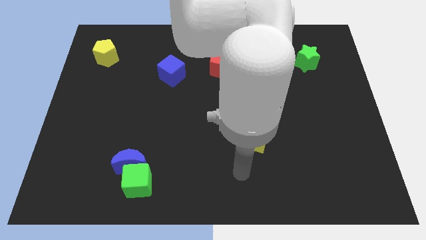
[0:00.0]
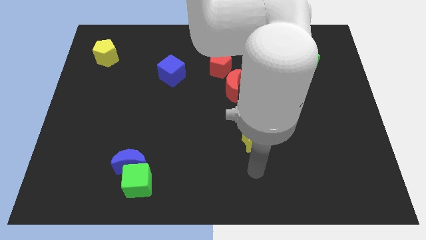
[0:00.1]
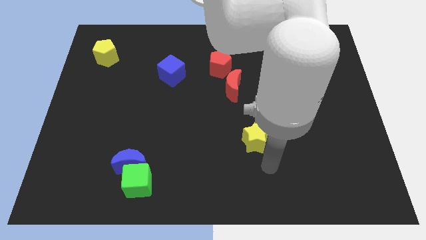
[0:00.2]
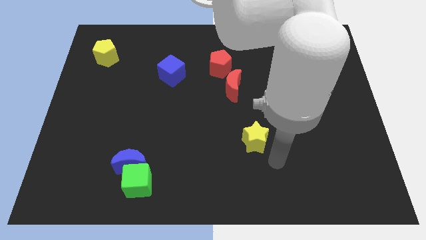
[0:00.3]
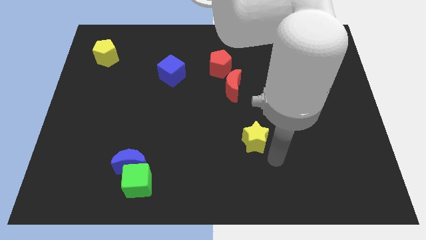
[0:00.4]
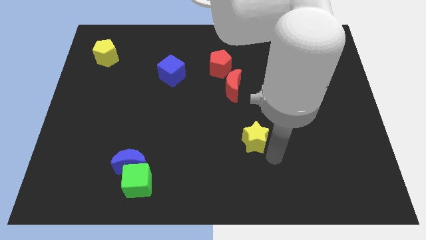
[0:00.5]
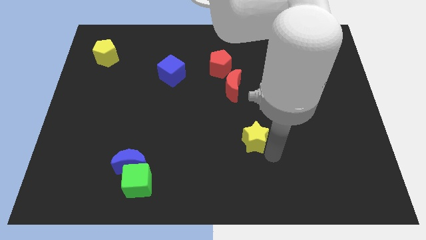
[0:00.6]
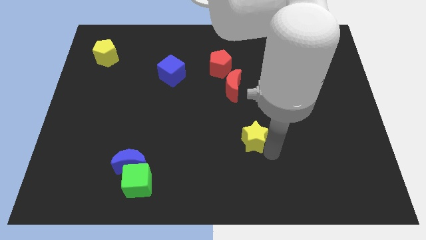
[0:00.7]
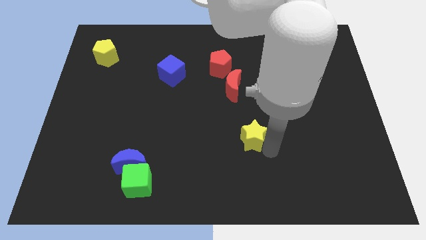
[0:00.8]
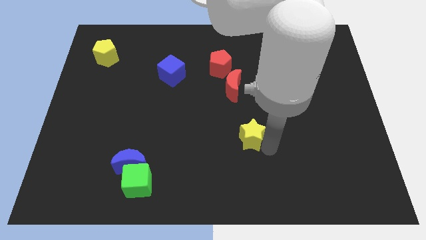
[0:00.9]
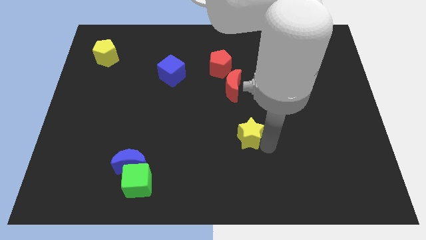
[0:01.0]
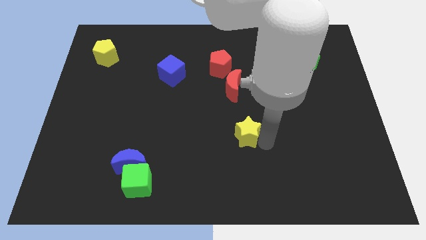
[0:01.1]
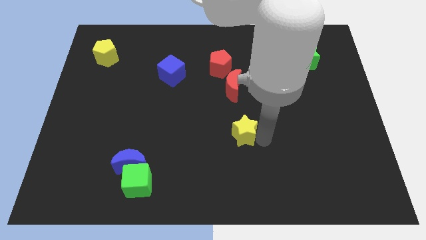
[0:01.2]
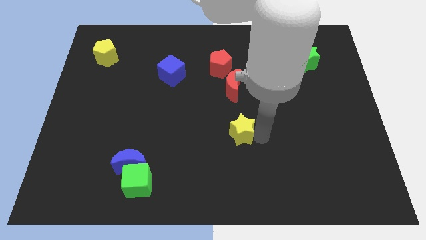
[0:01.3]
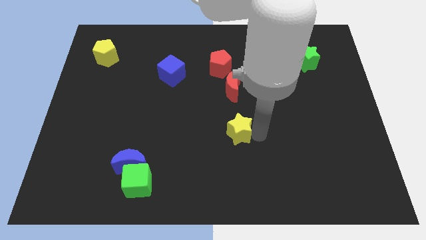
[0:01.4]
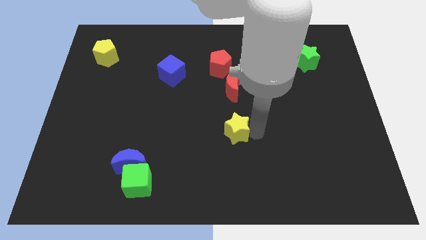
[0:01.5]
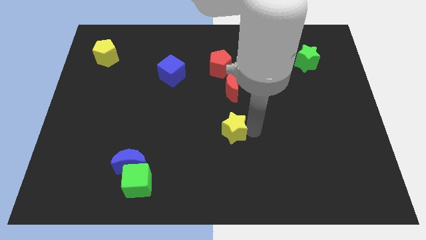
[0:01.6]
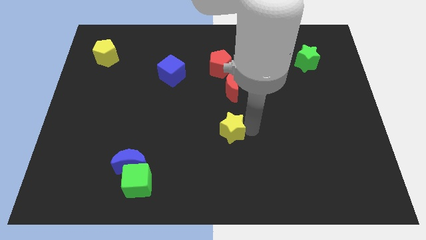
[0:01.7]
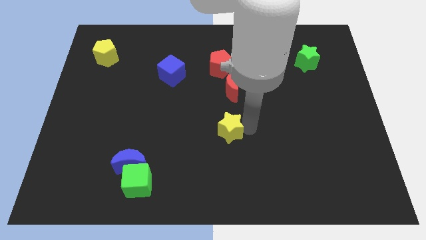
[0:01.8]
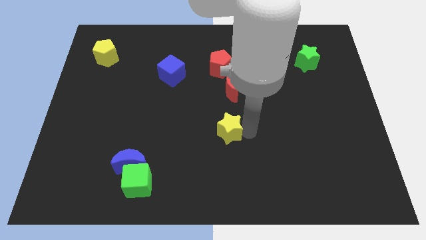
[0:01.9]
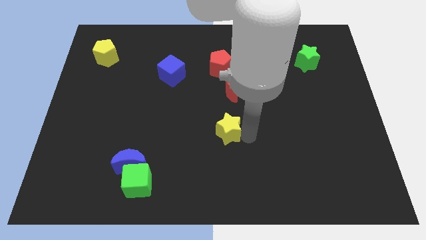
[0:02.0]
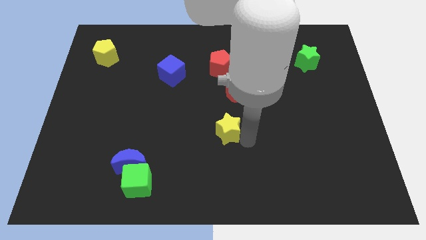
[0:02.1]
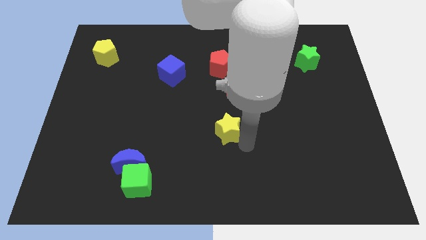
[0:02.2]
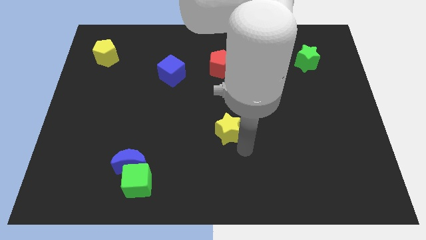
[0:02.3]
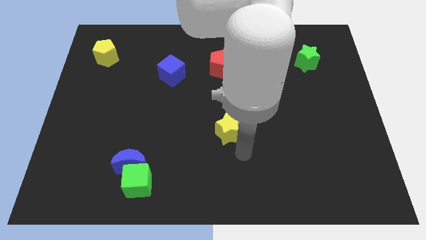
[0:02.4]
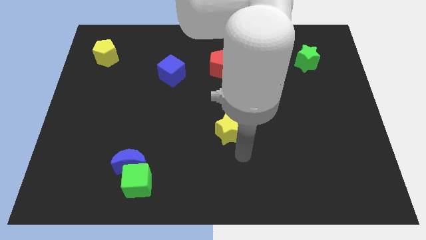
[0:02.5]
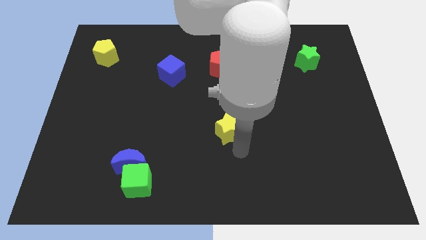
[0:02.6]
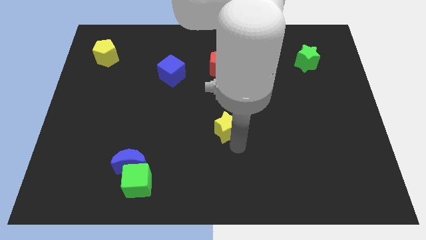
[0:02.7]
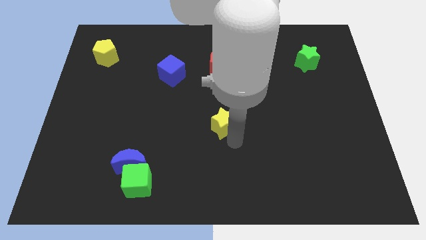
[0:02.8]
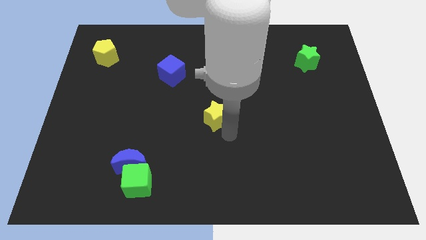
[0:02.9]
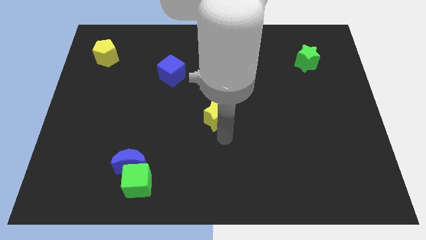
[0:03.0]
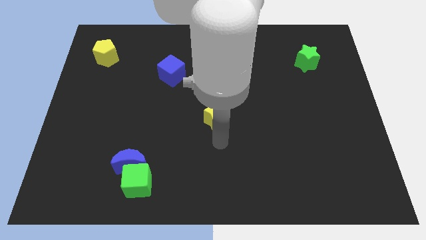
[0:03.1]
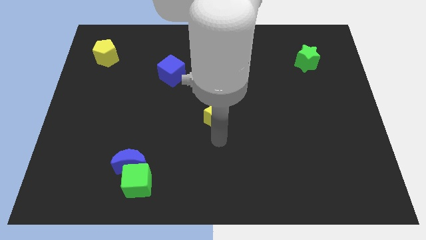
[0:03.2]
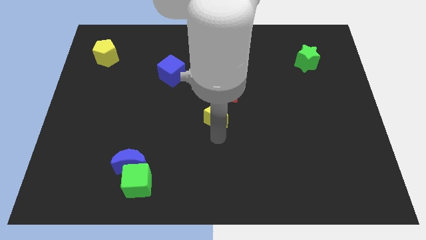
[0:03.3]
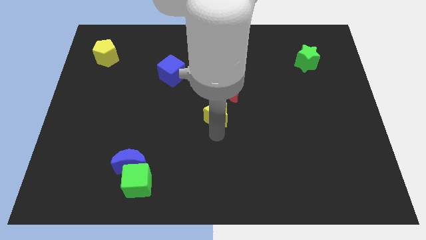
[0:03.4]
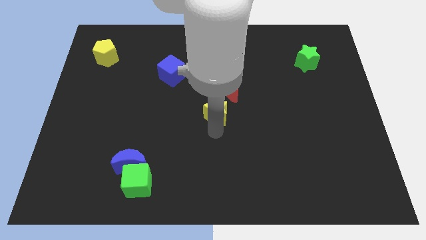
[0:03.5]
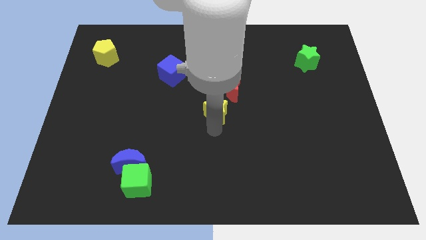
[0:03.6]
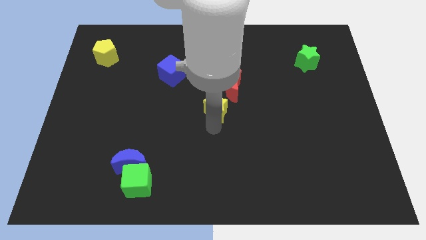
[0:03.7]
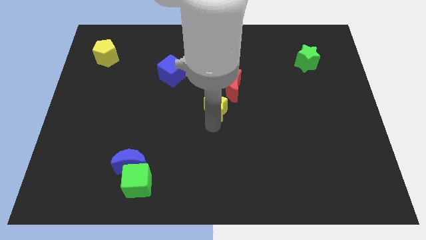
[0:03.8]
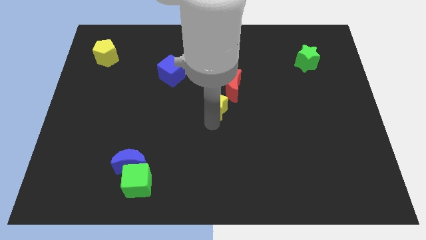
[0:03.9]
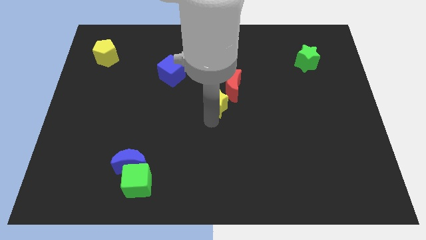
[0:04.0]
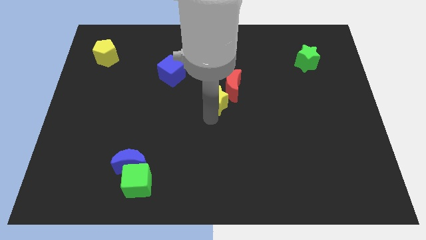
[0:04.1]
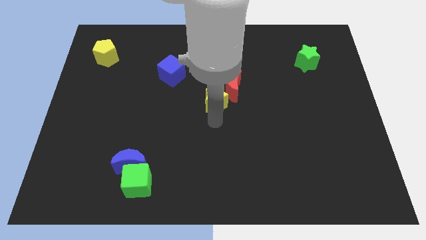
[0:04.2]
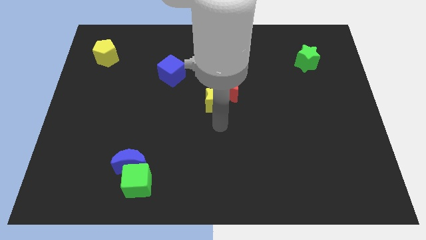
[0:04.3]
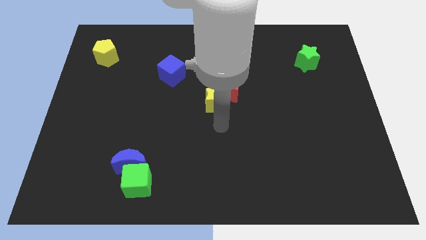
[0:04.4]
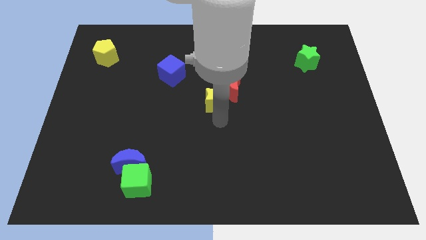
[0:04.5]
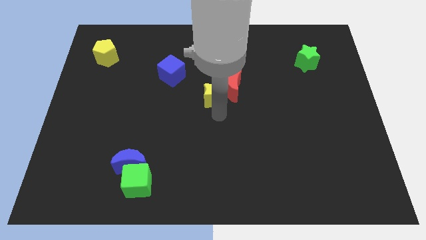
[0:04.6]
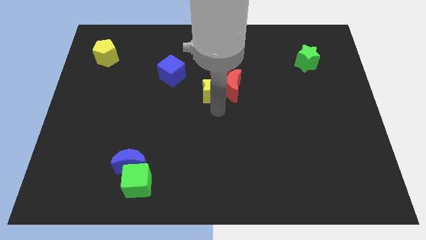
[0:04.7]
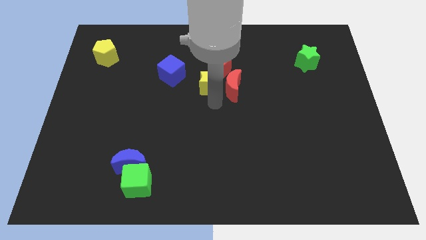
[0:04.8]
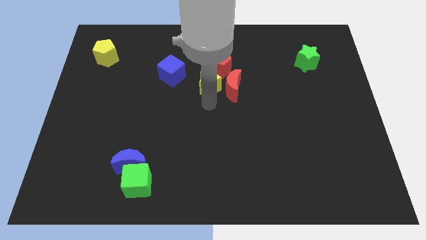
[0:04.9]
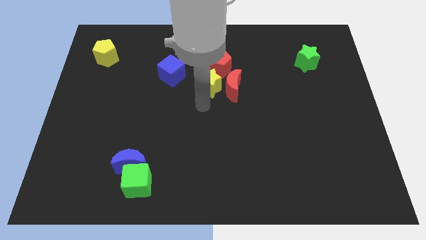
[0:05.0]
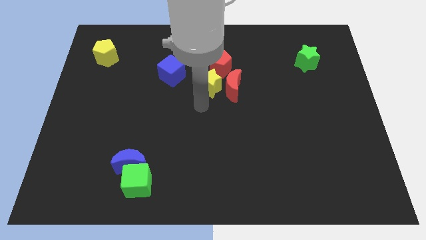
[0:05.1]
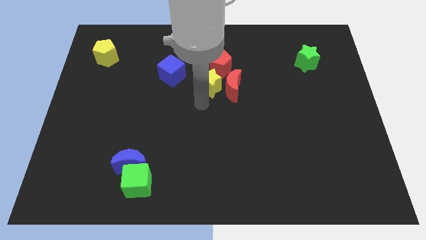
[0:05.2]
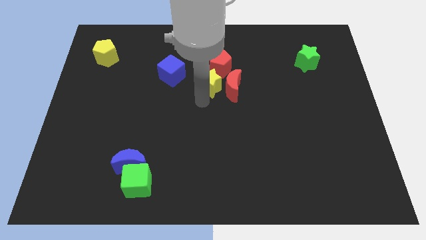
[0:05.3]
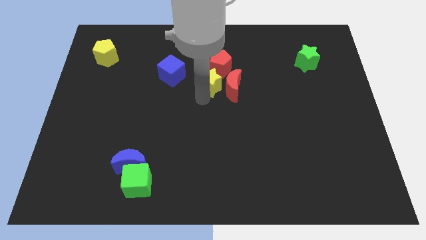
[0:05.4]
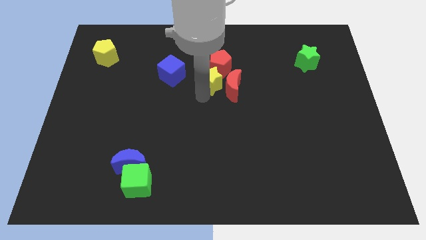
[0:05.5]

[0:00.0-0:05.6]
push the yellow star towards the red pentagon

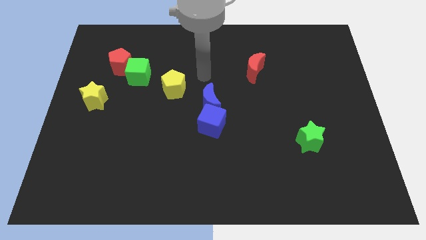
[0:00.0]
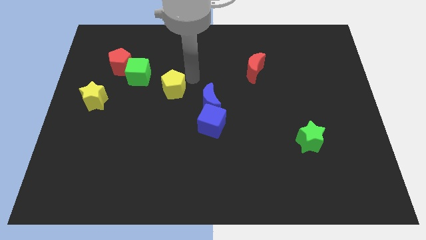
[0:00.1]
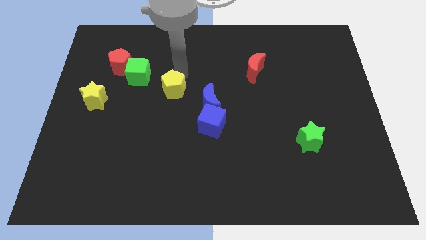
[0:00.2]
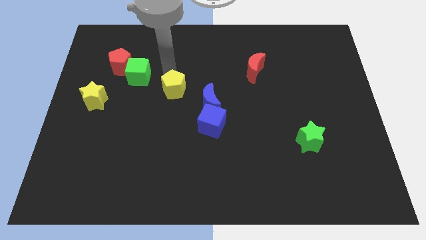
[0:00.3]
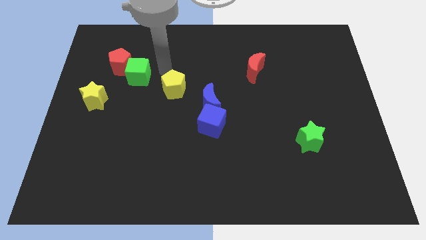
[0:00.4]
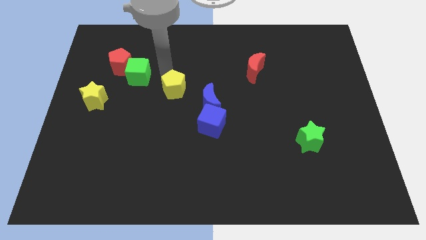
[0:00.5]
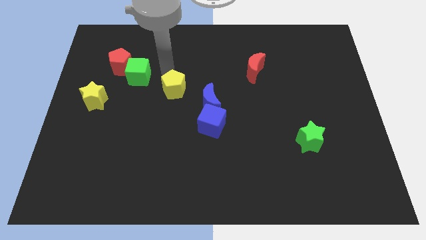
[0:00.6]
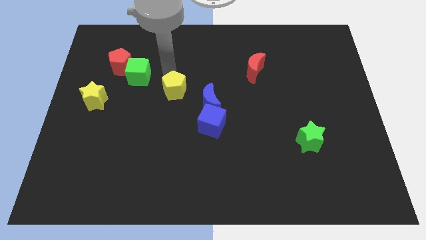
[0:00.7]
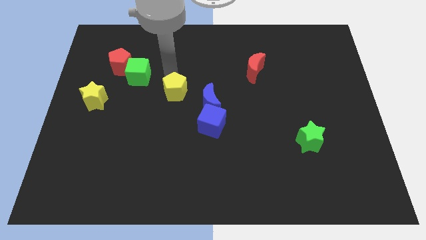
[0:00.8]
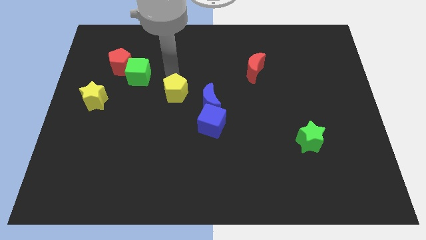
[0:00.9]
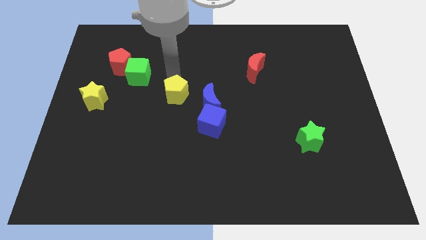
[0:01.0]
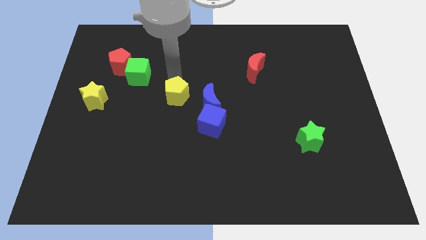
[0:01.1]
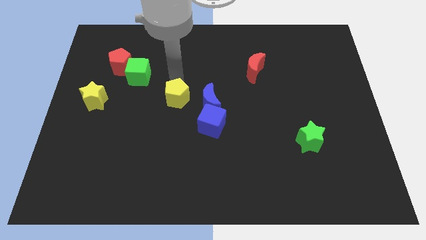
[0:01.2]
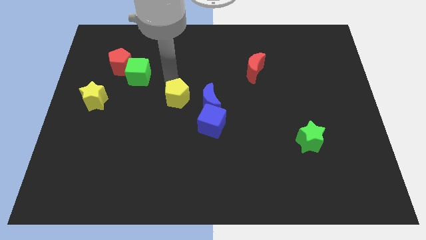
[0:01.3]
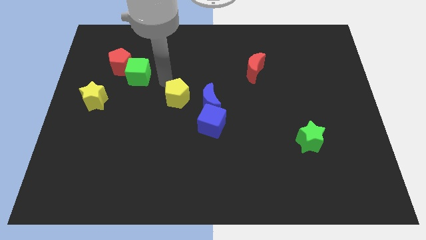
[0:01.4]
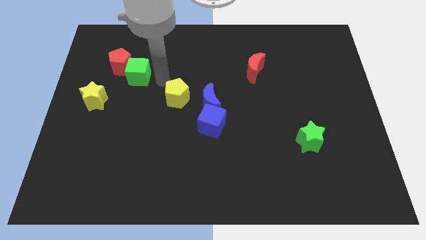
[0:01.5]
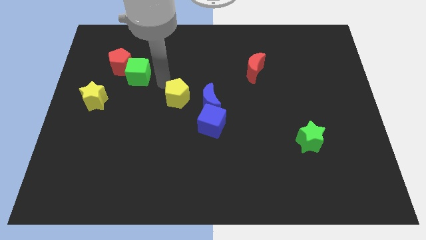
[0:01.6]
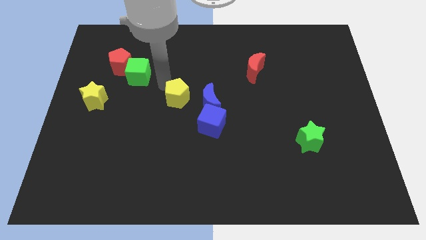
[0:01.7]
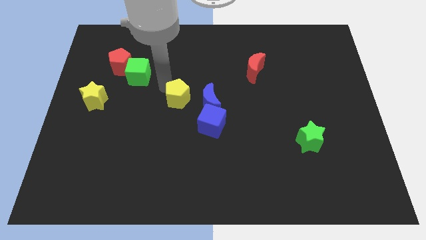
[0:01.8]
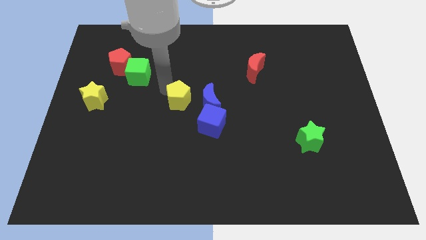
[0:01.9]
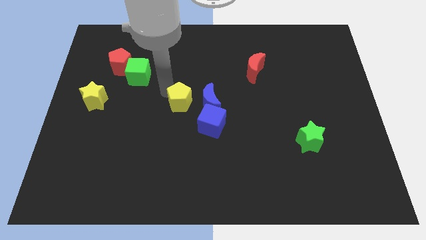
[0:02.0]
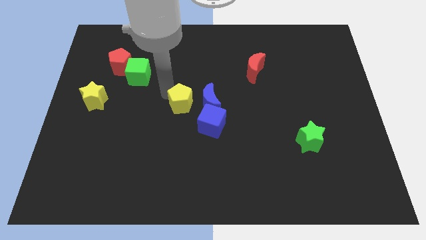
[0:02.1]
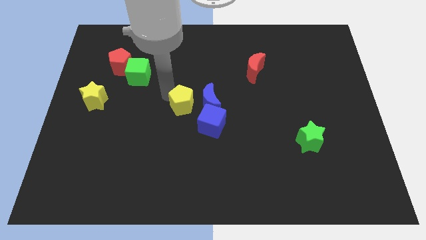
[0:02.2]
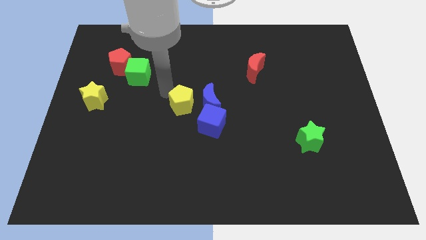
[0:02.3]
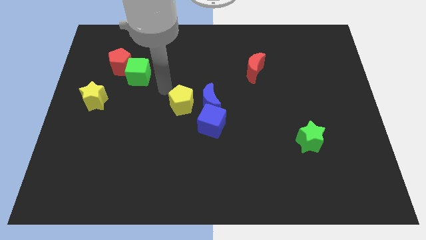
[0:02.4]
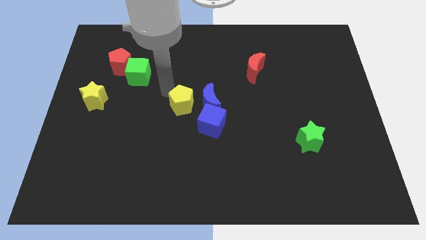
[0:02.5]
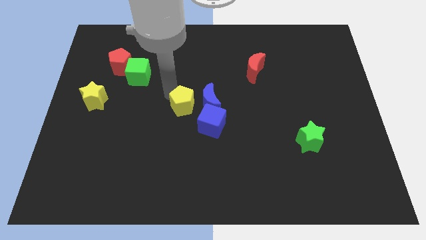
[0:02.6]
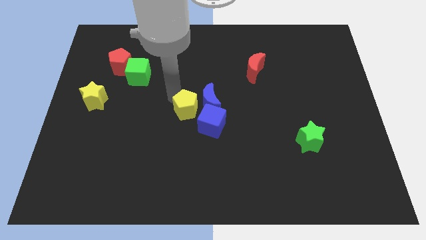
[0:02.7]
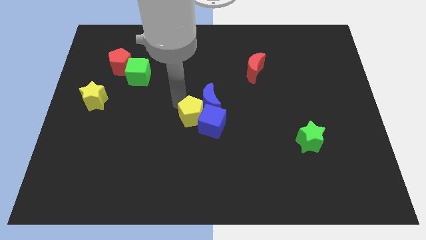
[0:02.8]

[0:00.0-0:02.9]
put the yellow pentagon next to the blue cube
